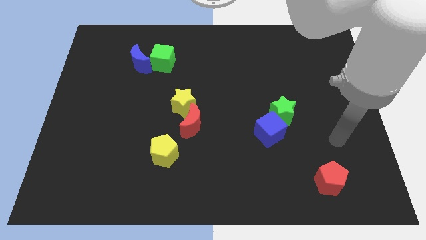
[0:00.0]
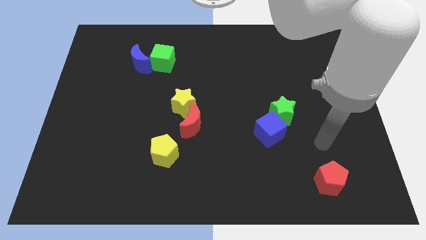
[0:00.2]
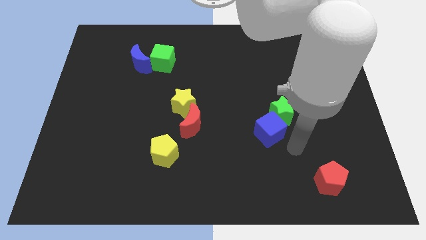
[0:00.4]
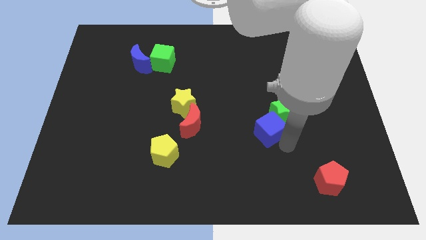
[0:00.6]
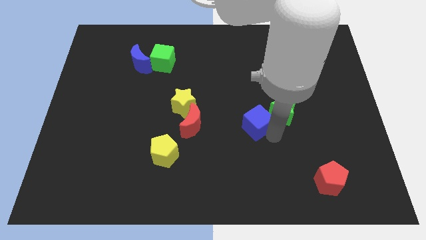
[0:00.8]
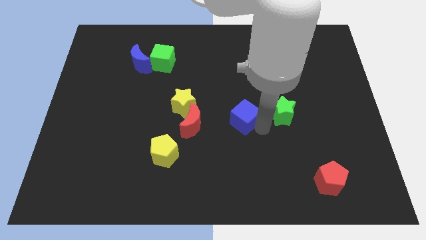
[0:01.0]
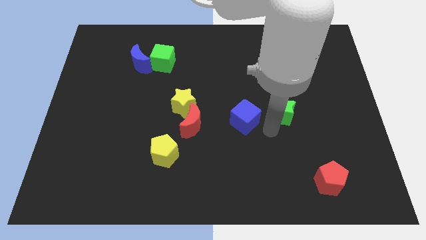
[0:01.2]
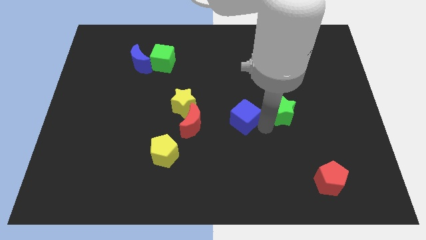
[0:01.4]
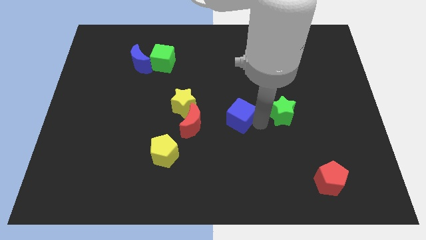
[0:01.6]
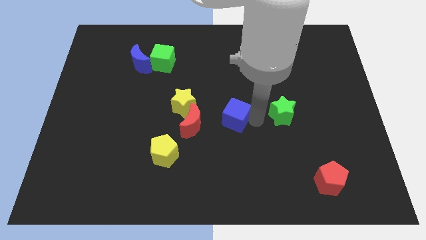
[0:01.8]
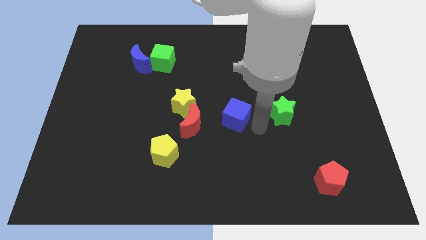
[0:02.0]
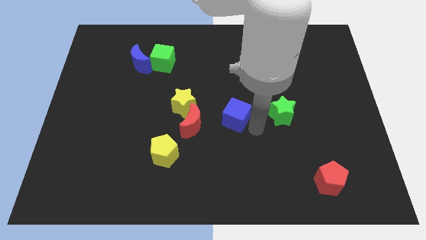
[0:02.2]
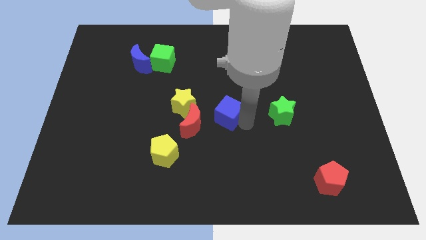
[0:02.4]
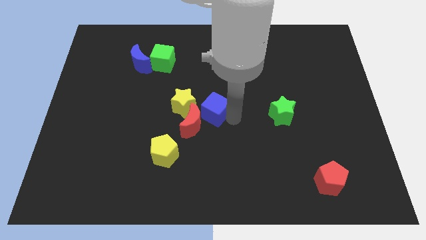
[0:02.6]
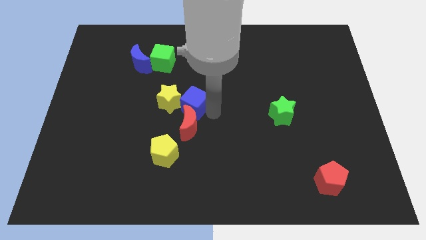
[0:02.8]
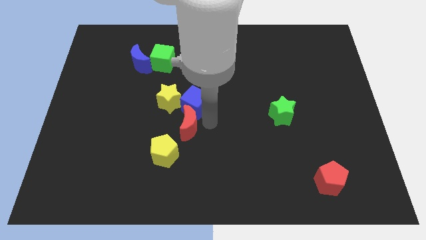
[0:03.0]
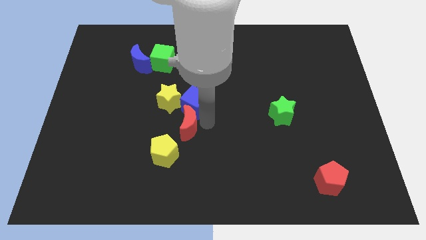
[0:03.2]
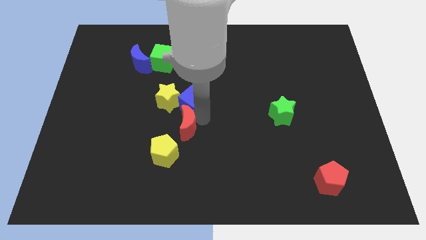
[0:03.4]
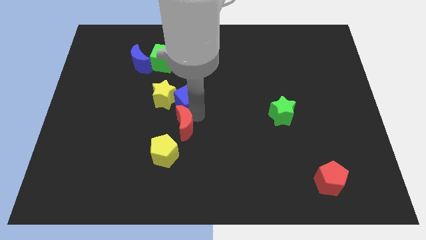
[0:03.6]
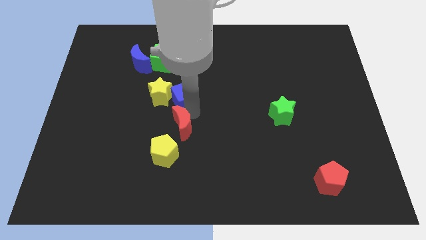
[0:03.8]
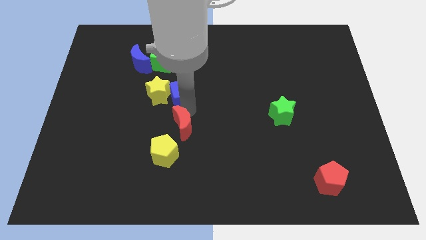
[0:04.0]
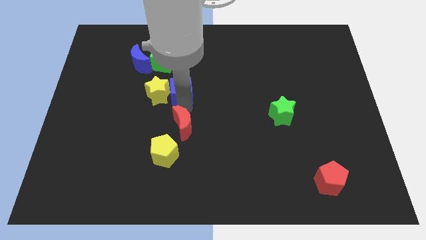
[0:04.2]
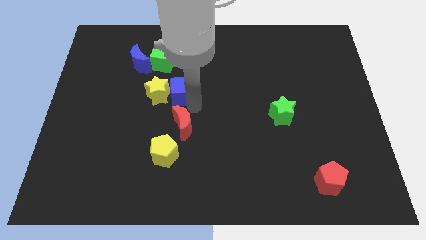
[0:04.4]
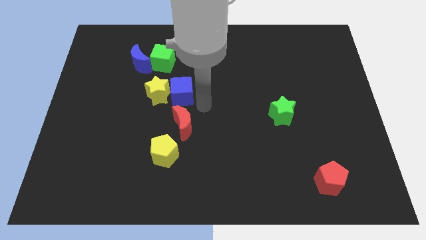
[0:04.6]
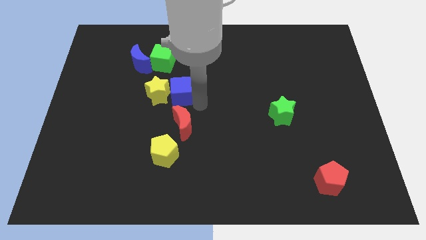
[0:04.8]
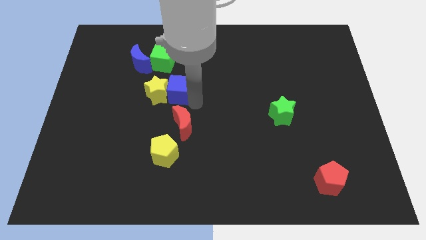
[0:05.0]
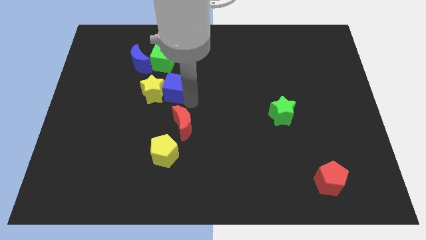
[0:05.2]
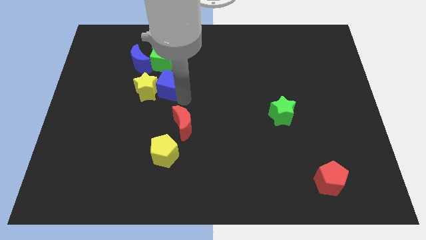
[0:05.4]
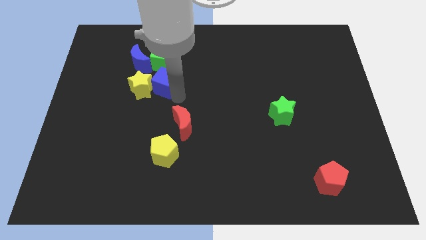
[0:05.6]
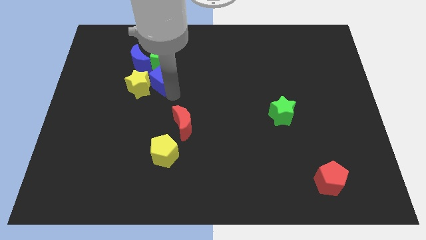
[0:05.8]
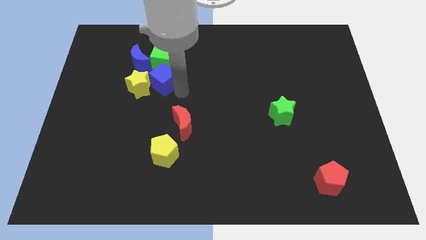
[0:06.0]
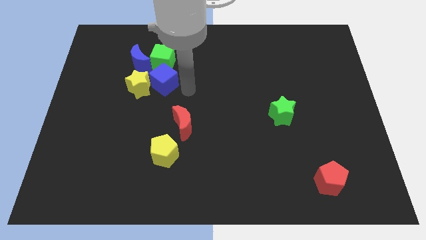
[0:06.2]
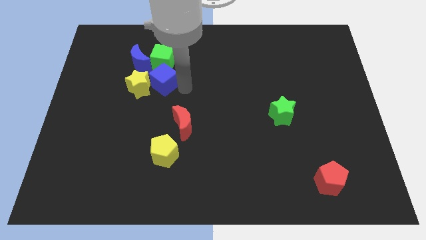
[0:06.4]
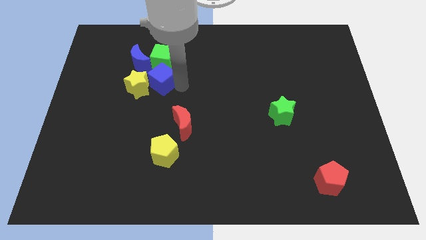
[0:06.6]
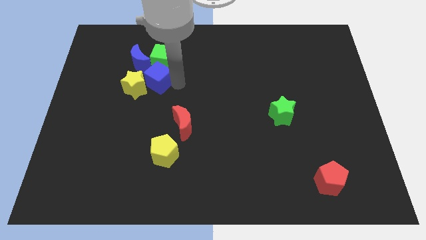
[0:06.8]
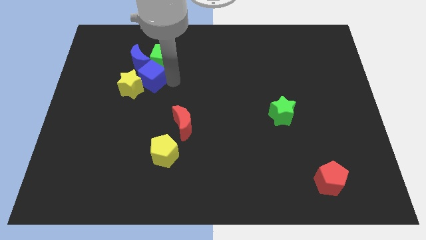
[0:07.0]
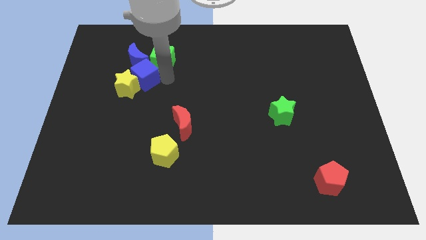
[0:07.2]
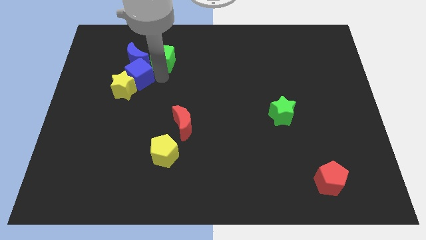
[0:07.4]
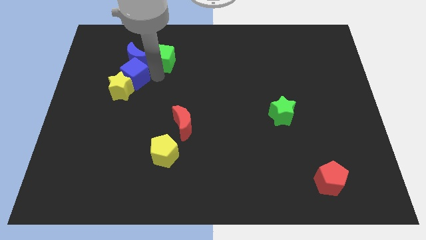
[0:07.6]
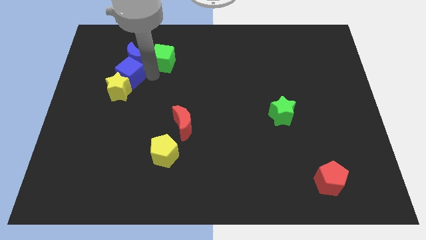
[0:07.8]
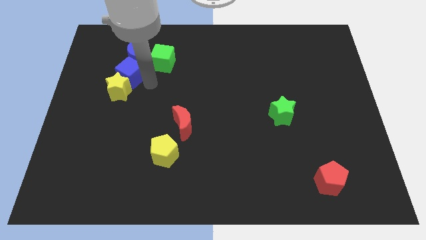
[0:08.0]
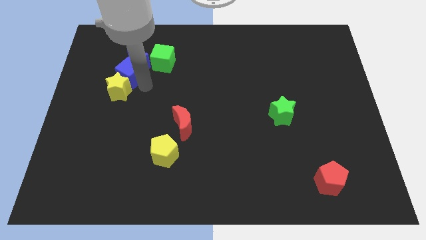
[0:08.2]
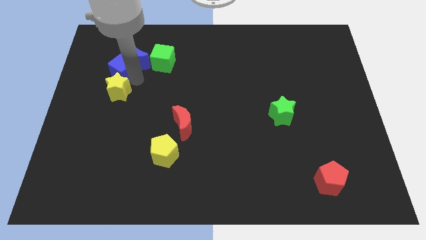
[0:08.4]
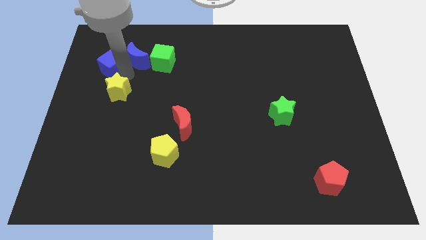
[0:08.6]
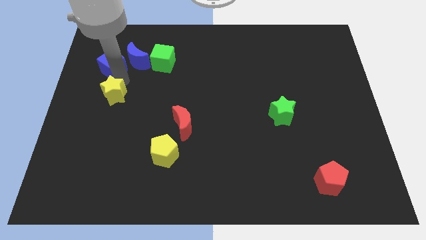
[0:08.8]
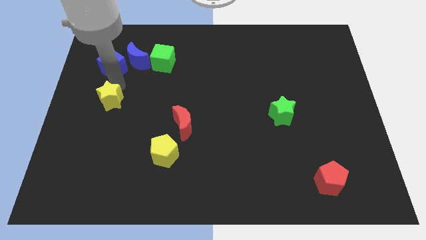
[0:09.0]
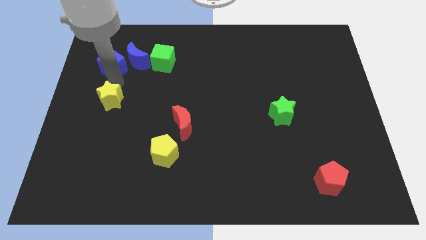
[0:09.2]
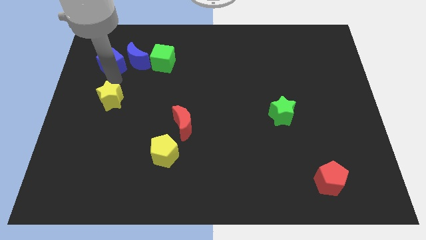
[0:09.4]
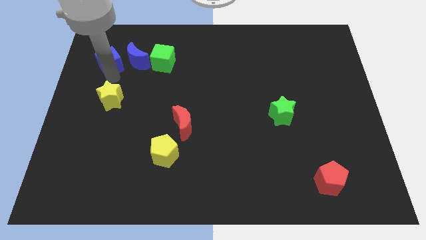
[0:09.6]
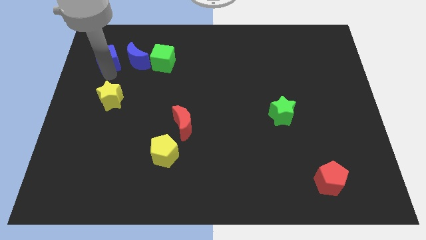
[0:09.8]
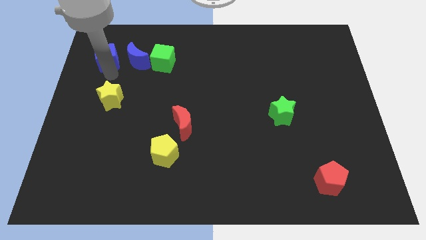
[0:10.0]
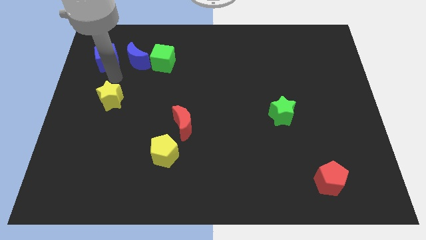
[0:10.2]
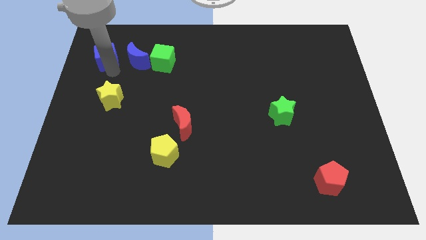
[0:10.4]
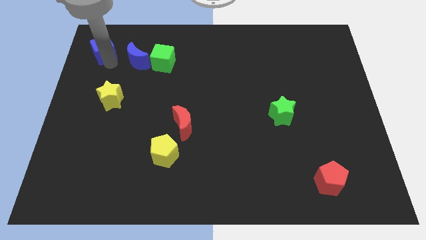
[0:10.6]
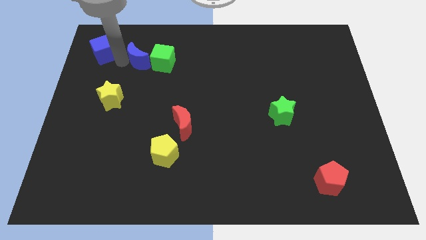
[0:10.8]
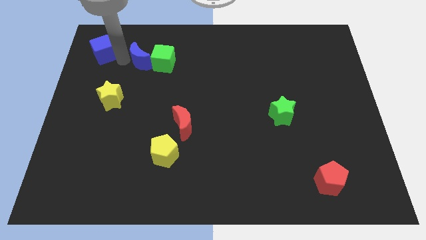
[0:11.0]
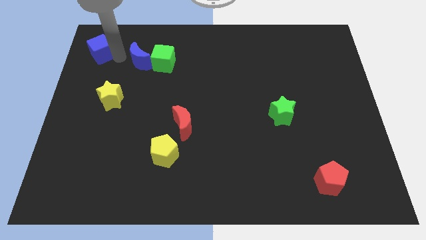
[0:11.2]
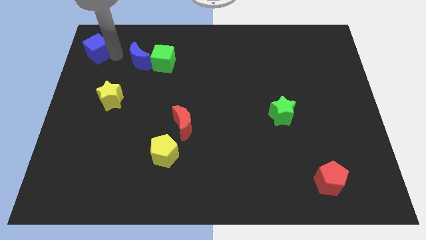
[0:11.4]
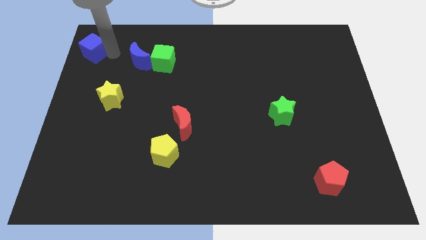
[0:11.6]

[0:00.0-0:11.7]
slide the blue cube to the top left corner

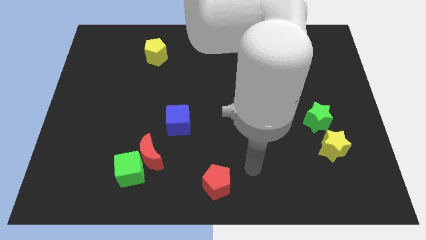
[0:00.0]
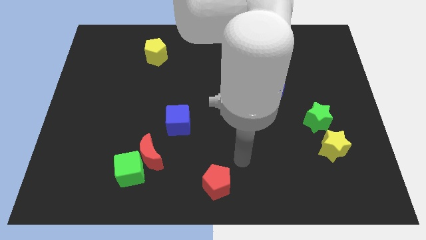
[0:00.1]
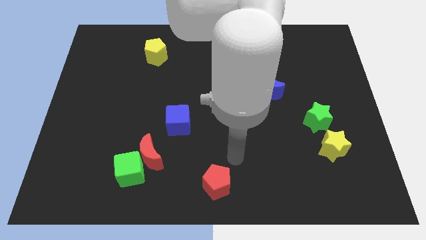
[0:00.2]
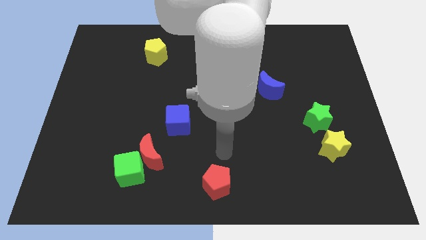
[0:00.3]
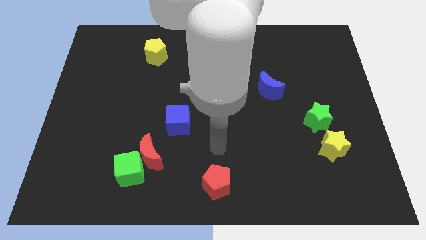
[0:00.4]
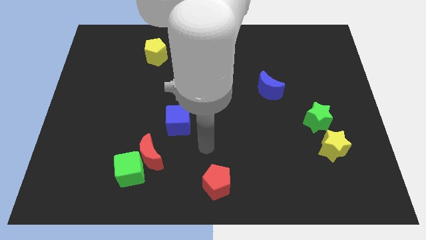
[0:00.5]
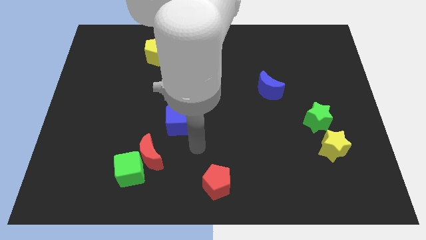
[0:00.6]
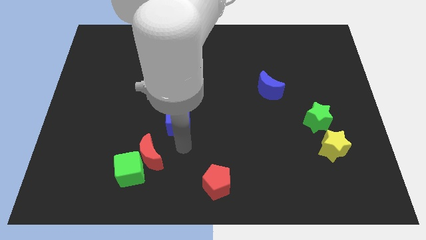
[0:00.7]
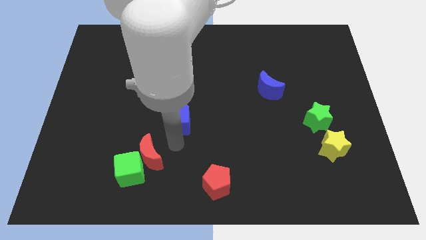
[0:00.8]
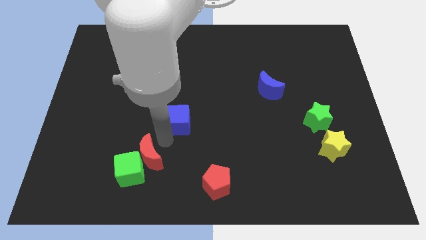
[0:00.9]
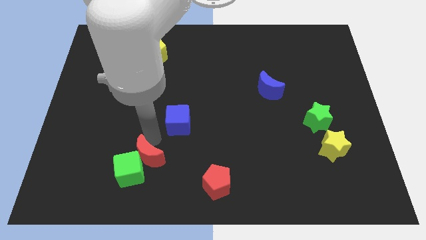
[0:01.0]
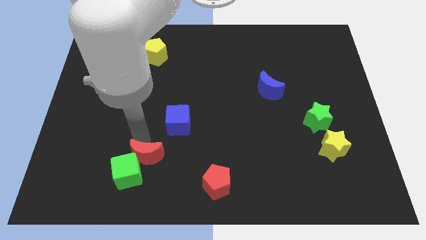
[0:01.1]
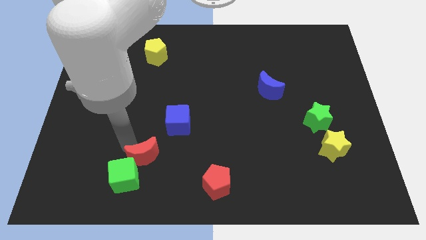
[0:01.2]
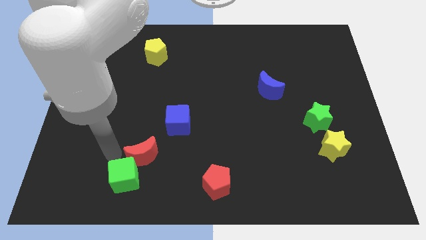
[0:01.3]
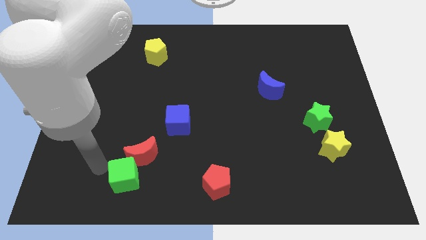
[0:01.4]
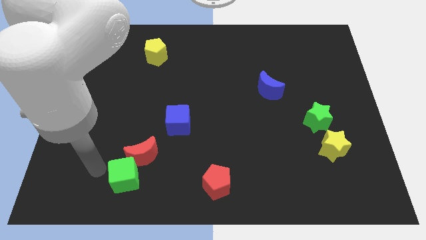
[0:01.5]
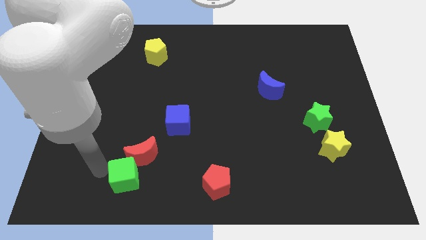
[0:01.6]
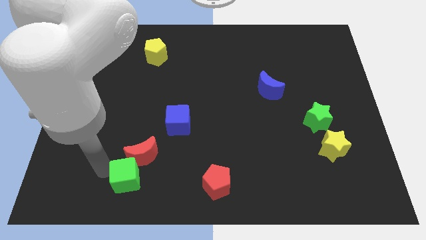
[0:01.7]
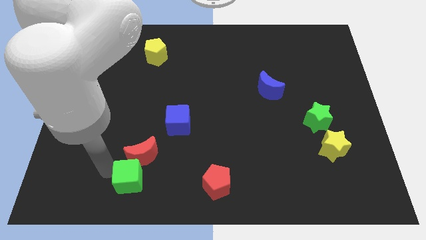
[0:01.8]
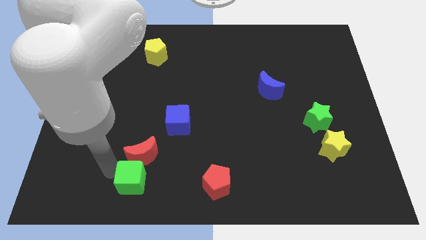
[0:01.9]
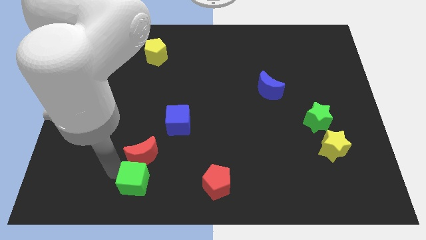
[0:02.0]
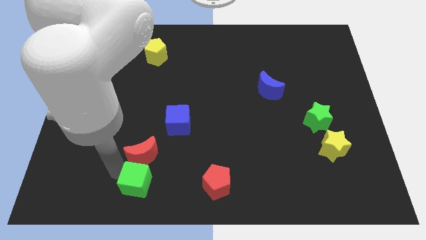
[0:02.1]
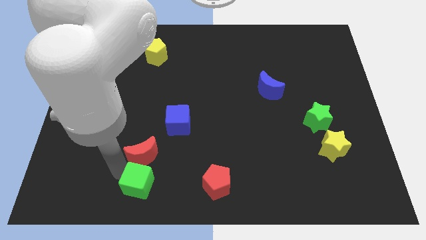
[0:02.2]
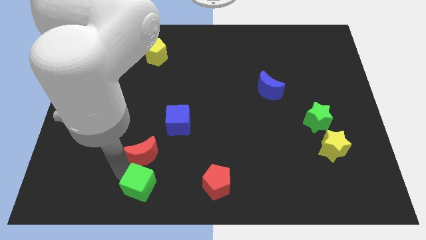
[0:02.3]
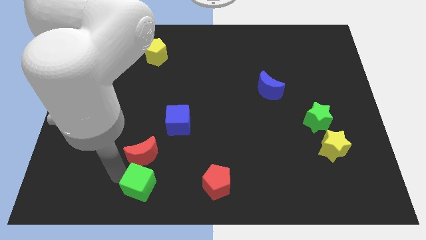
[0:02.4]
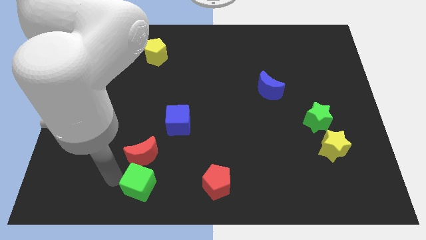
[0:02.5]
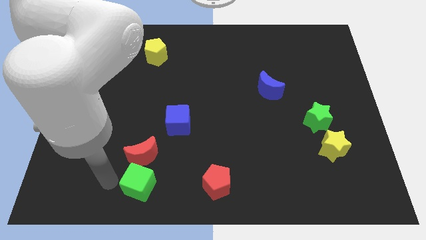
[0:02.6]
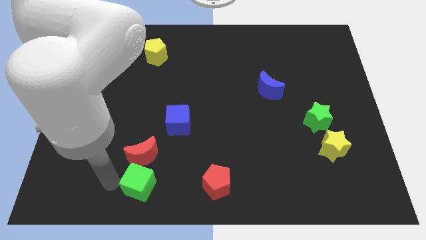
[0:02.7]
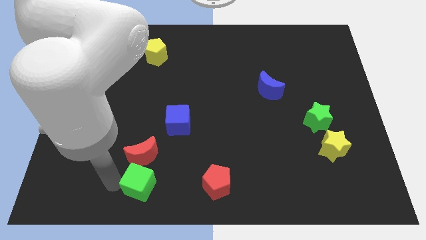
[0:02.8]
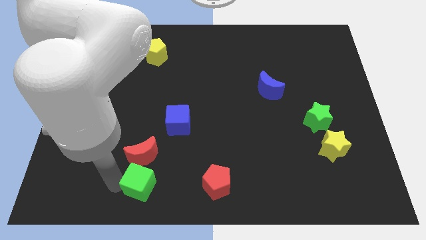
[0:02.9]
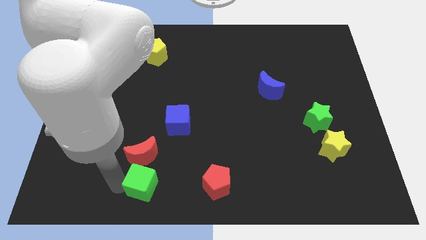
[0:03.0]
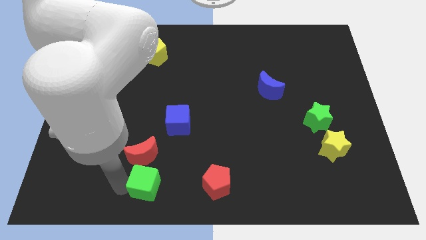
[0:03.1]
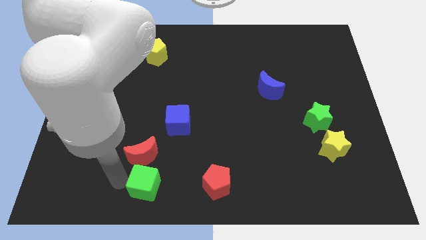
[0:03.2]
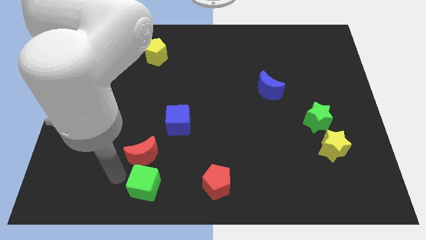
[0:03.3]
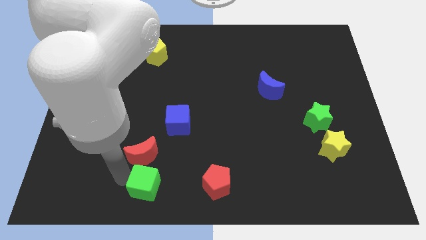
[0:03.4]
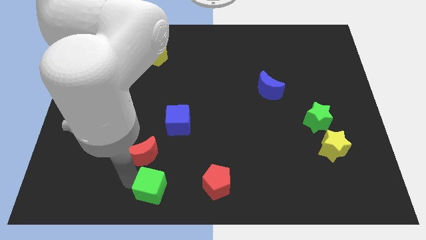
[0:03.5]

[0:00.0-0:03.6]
move the green cube to the bottom side
